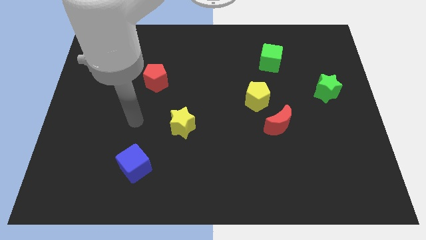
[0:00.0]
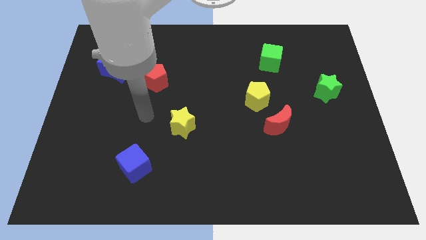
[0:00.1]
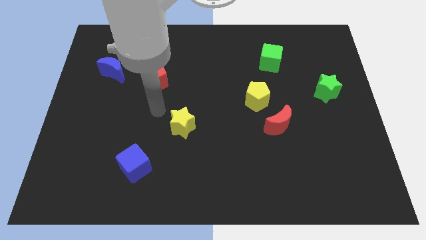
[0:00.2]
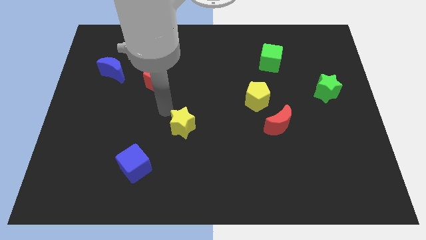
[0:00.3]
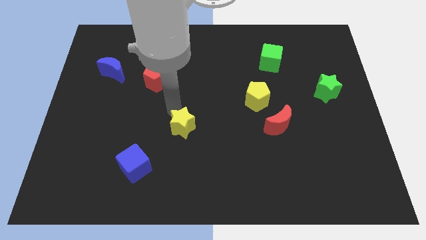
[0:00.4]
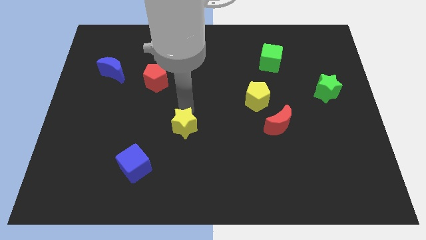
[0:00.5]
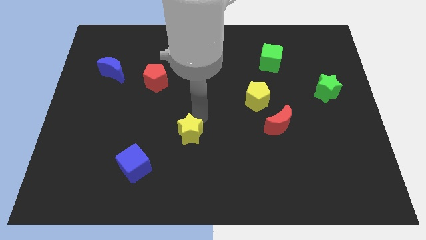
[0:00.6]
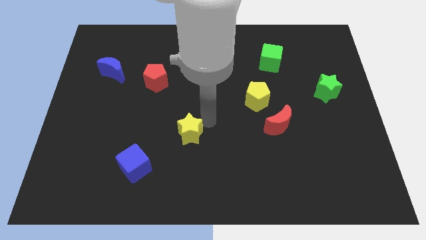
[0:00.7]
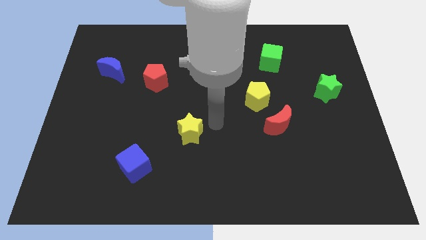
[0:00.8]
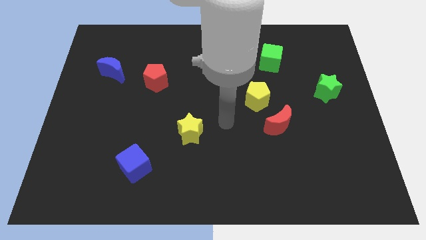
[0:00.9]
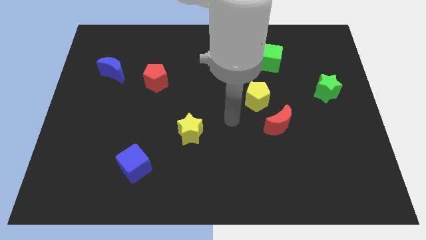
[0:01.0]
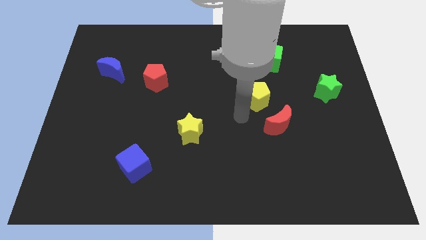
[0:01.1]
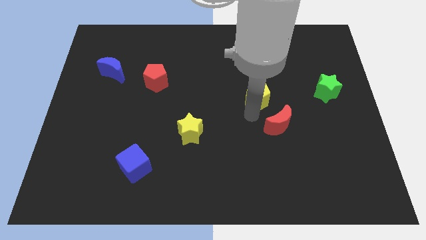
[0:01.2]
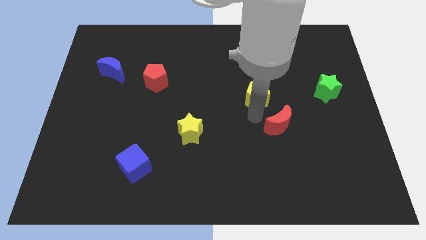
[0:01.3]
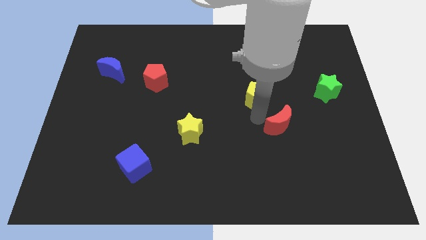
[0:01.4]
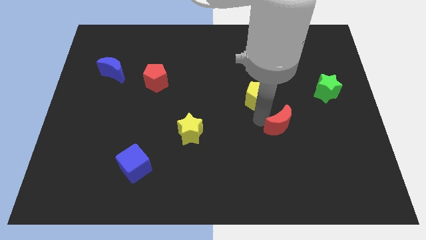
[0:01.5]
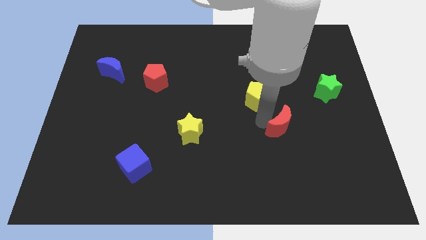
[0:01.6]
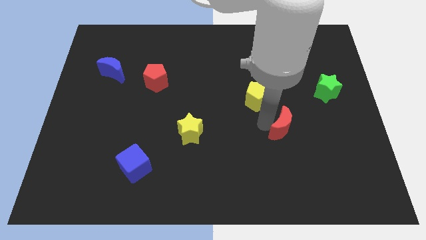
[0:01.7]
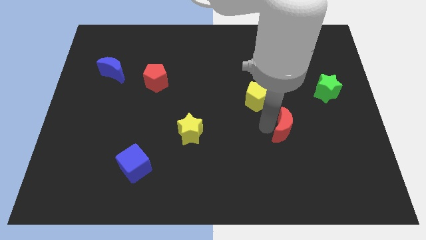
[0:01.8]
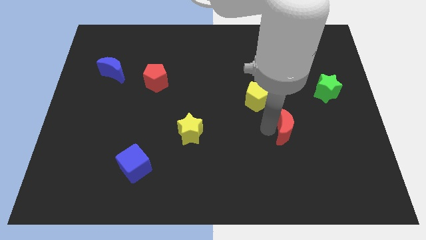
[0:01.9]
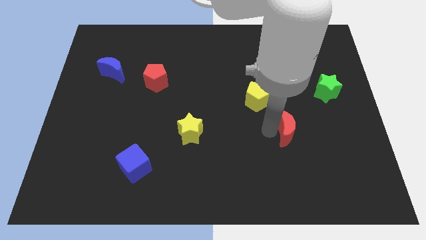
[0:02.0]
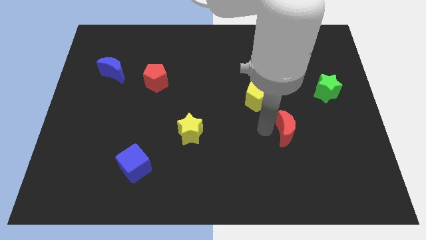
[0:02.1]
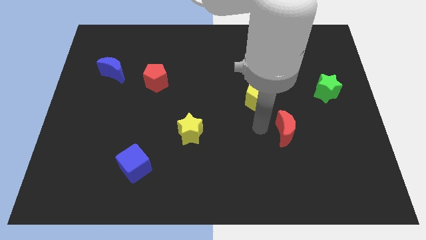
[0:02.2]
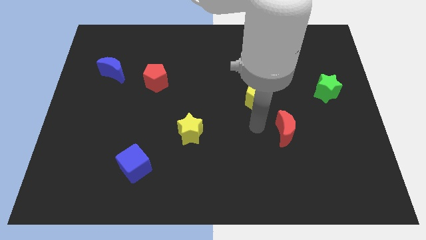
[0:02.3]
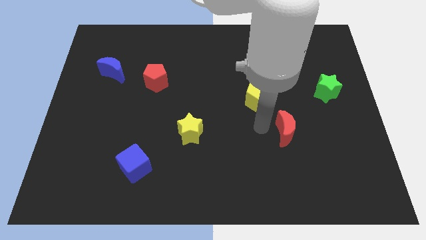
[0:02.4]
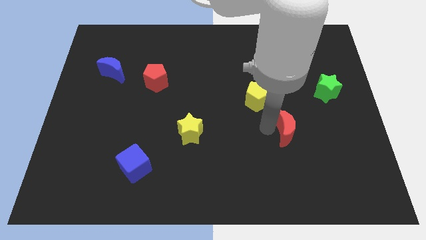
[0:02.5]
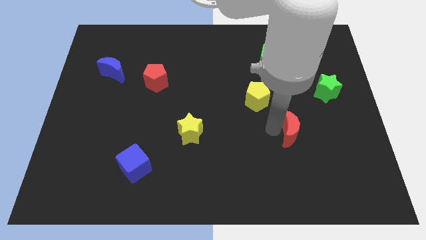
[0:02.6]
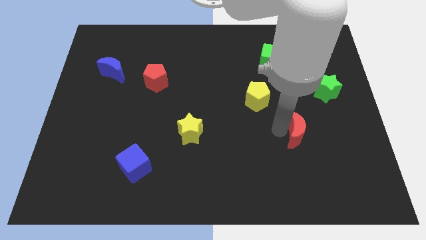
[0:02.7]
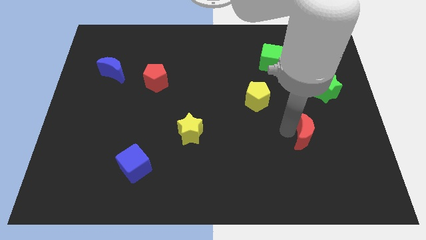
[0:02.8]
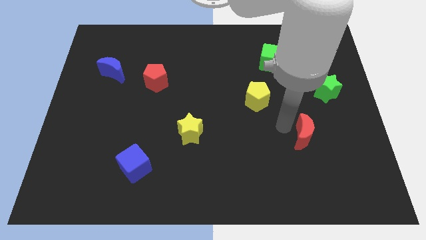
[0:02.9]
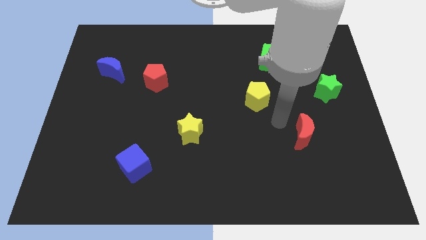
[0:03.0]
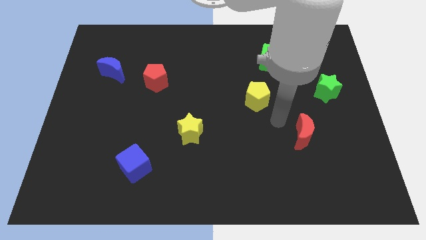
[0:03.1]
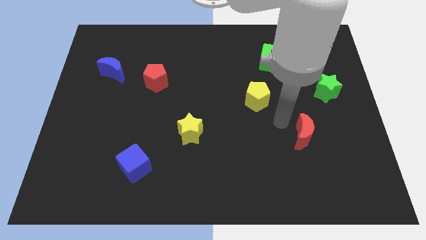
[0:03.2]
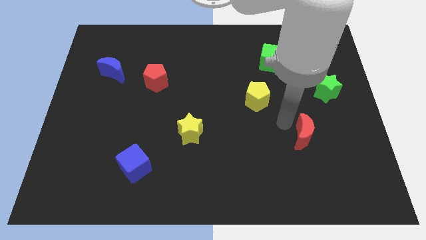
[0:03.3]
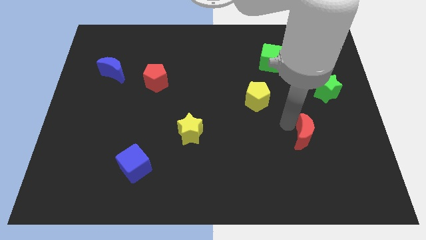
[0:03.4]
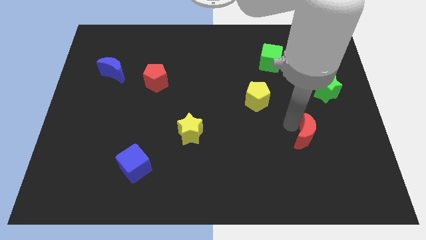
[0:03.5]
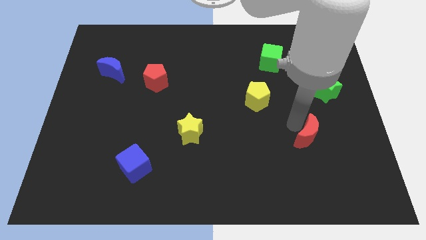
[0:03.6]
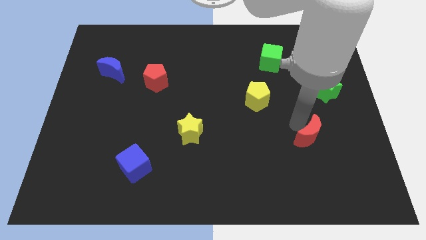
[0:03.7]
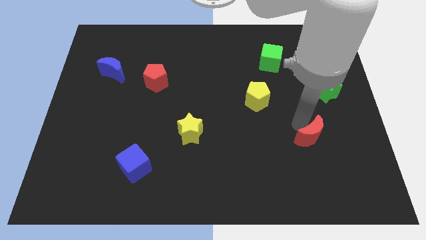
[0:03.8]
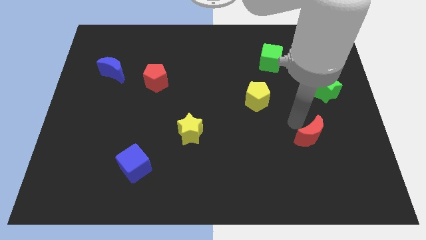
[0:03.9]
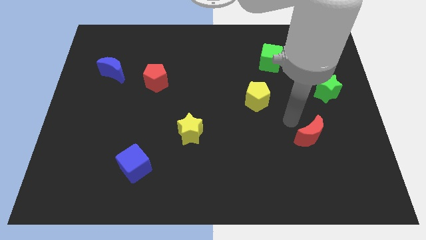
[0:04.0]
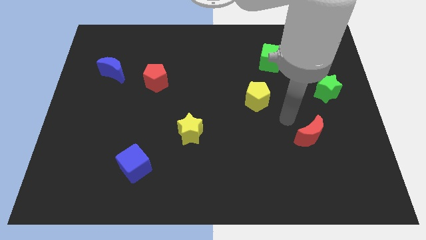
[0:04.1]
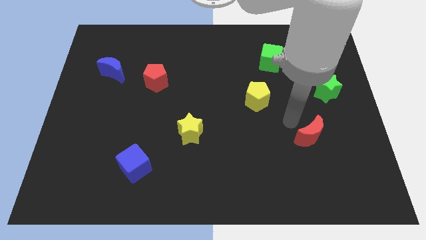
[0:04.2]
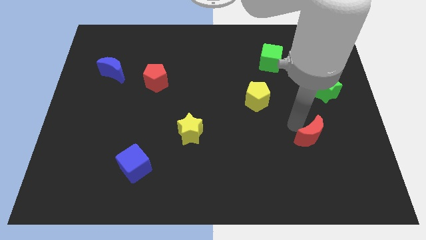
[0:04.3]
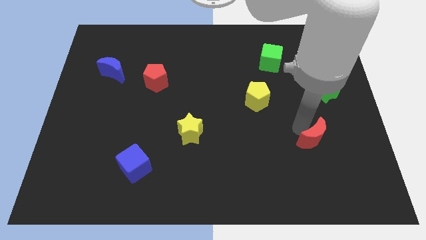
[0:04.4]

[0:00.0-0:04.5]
slightly push the red moon diagonally down and right

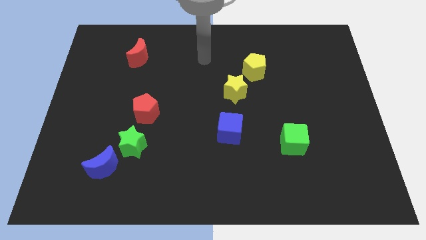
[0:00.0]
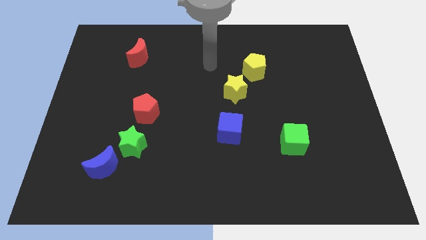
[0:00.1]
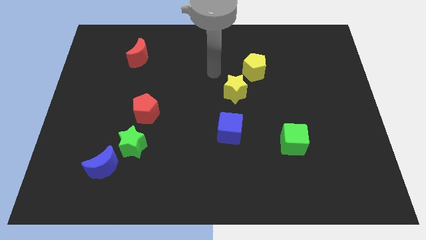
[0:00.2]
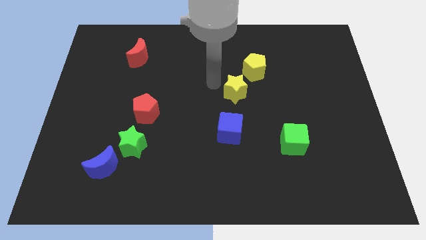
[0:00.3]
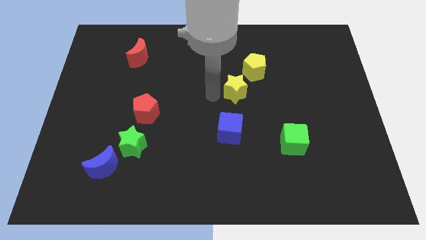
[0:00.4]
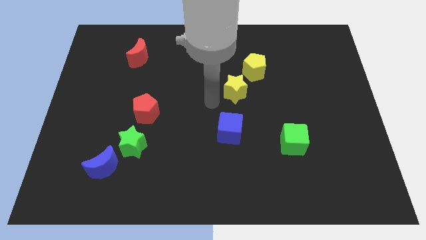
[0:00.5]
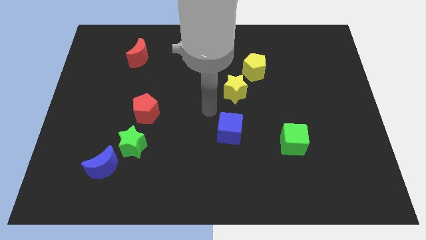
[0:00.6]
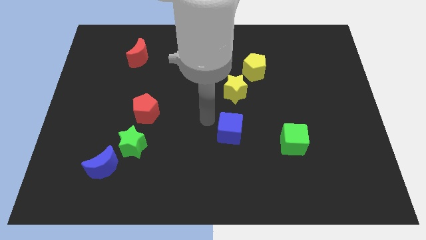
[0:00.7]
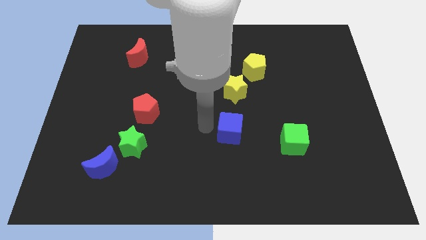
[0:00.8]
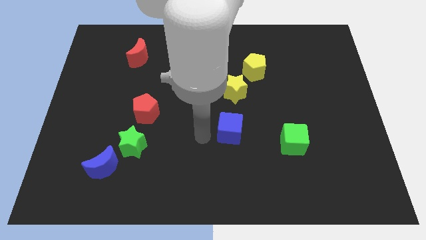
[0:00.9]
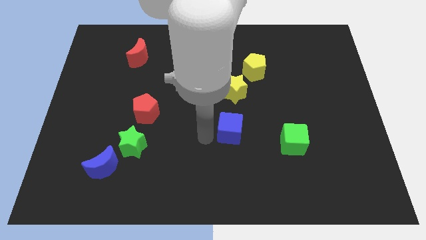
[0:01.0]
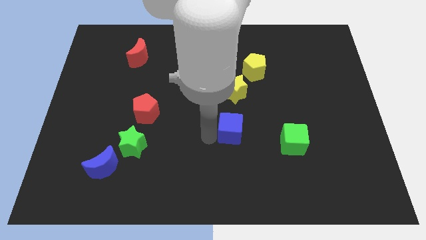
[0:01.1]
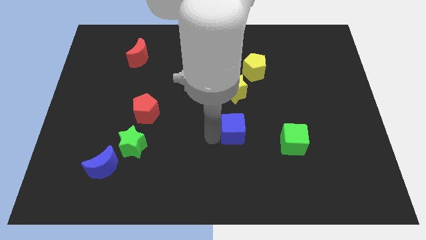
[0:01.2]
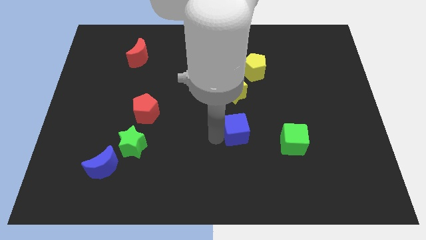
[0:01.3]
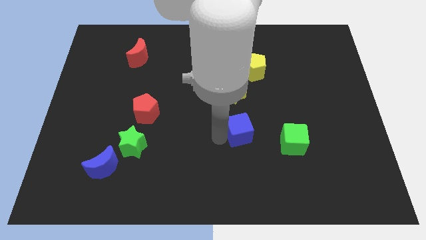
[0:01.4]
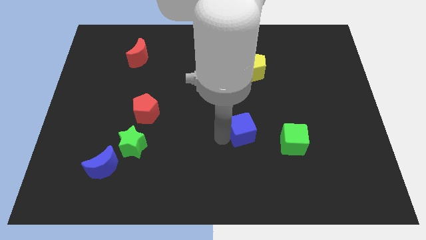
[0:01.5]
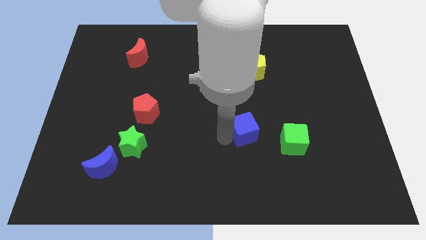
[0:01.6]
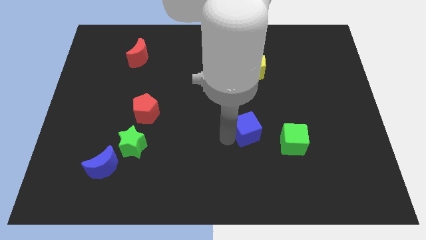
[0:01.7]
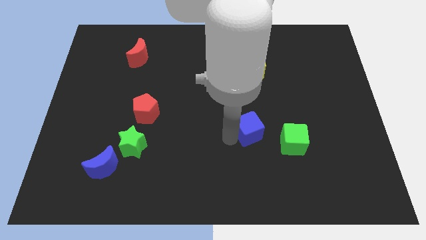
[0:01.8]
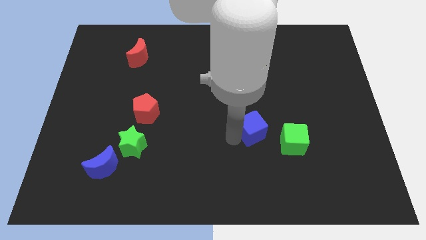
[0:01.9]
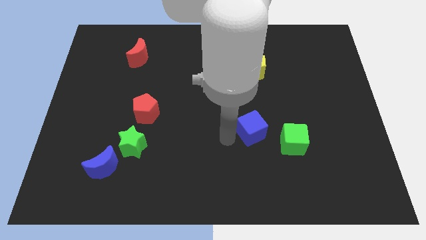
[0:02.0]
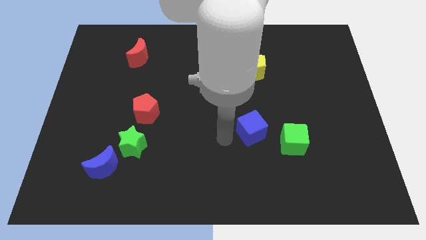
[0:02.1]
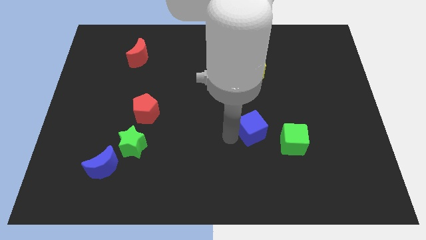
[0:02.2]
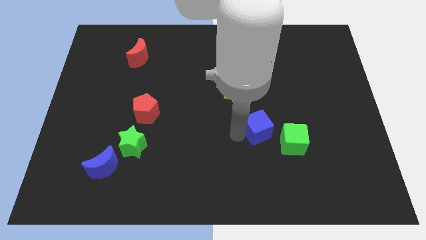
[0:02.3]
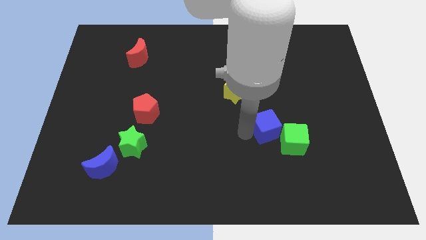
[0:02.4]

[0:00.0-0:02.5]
slightly slide the blue cube to the right

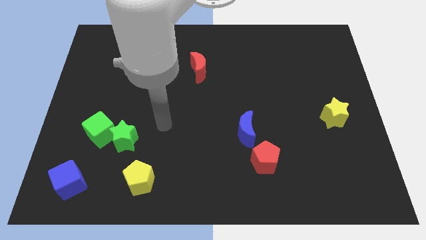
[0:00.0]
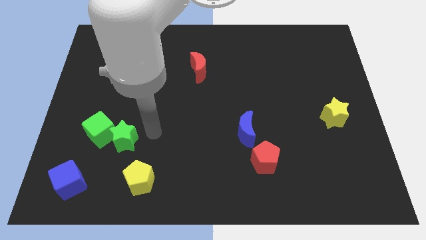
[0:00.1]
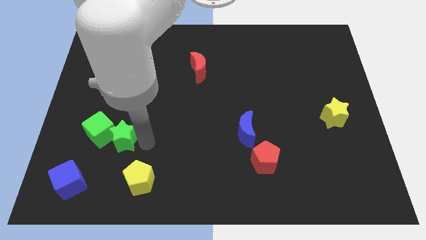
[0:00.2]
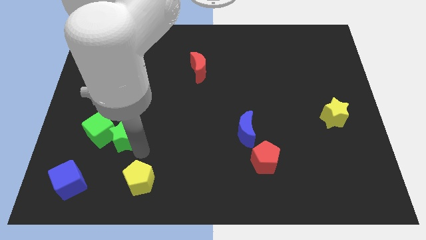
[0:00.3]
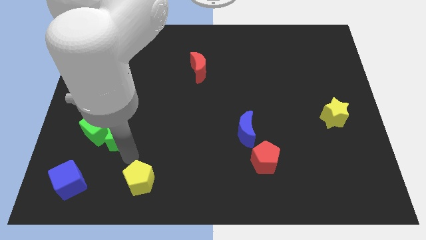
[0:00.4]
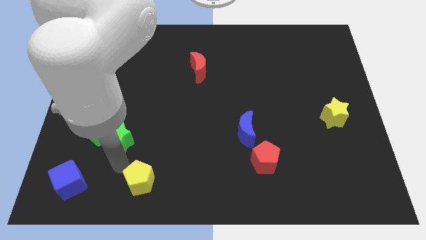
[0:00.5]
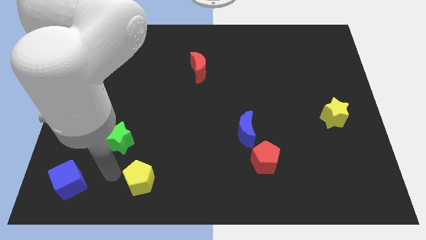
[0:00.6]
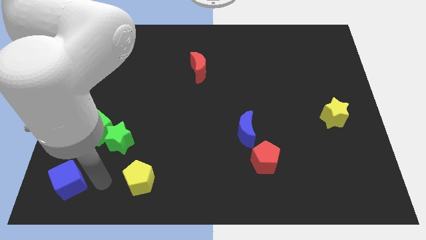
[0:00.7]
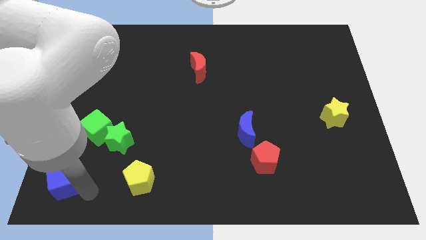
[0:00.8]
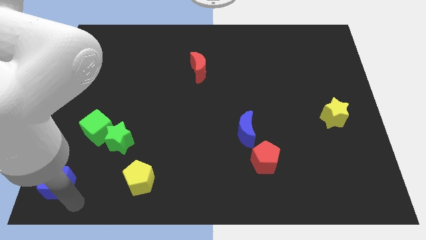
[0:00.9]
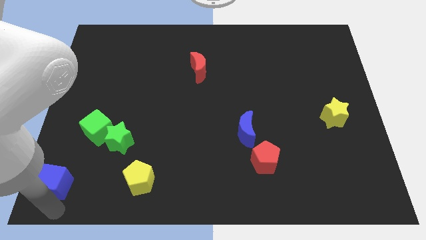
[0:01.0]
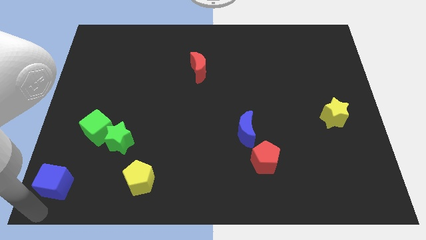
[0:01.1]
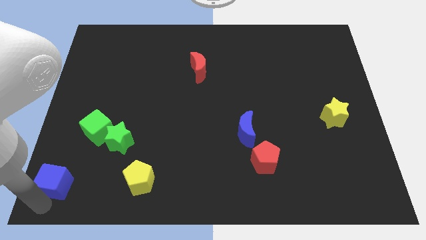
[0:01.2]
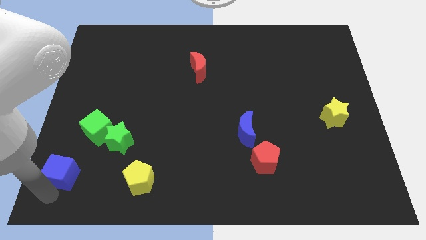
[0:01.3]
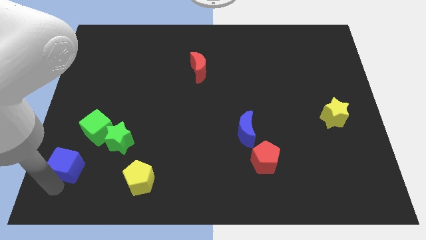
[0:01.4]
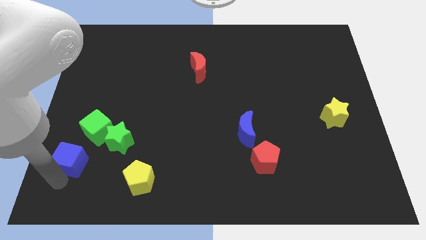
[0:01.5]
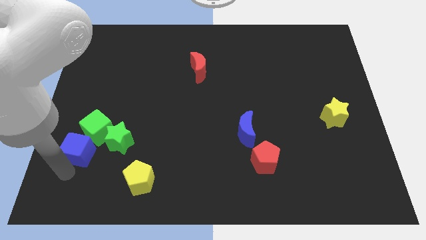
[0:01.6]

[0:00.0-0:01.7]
move the blue cube a little upwards
